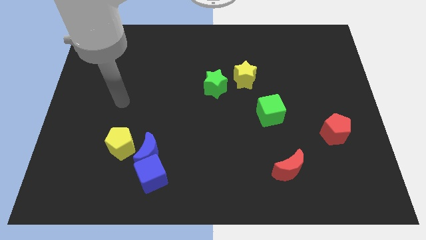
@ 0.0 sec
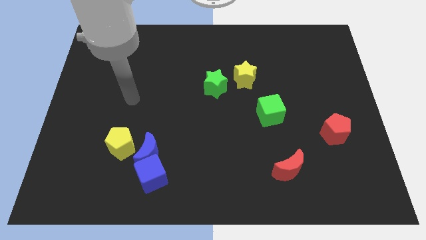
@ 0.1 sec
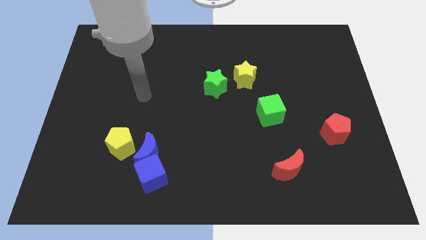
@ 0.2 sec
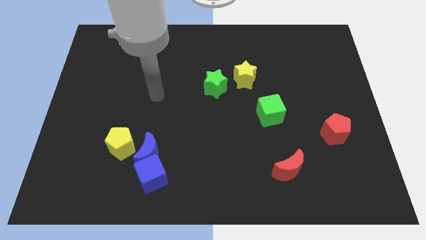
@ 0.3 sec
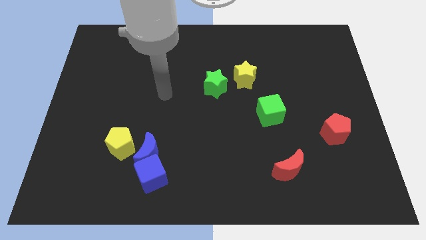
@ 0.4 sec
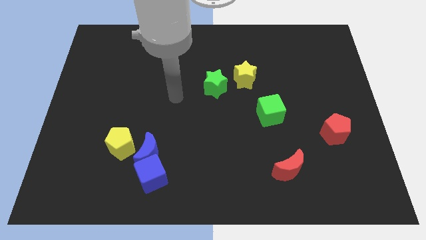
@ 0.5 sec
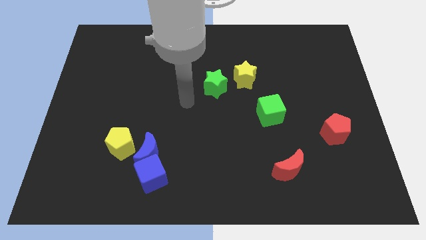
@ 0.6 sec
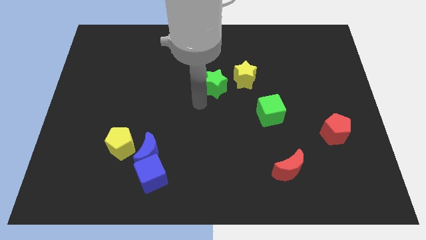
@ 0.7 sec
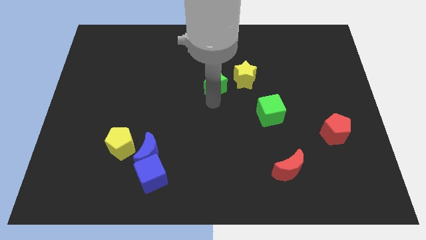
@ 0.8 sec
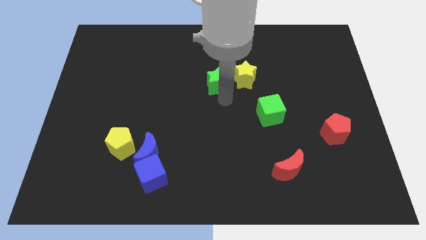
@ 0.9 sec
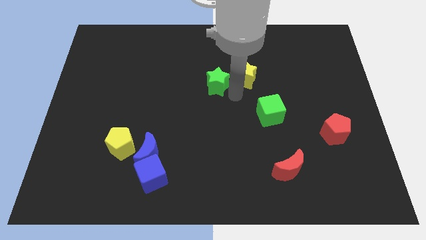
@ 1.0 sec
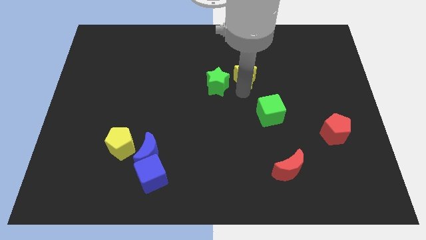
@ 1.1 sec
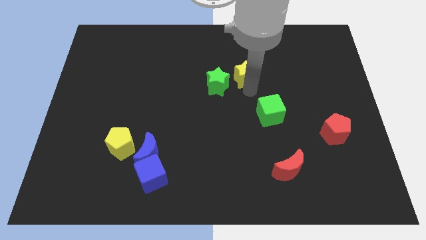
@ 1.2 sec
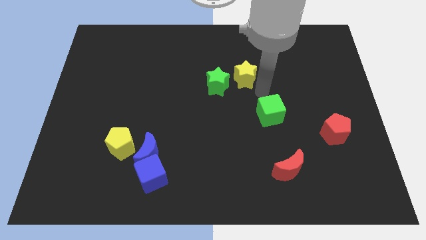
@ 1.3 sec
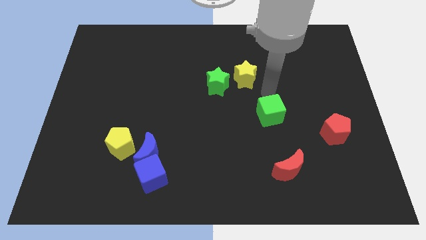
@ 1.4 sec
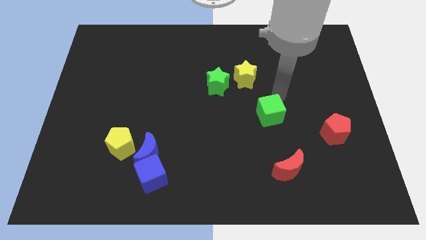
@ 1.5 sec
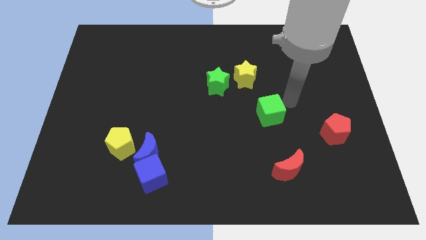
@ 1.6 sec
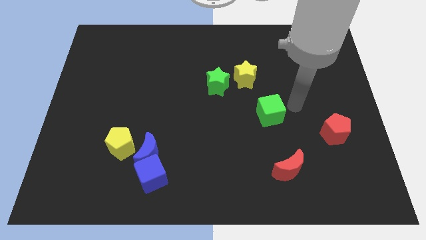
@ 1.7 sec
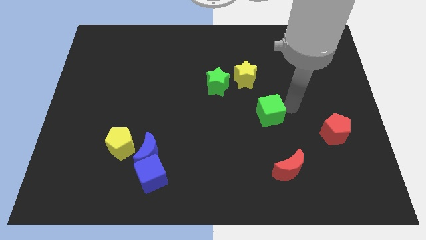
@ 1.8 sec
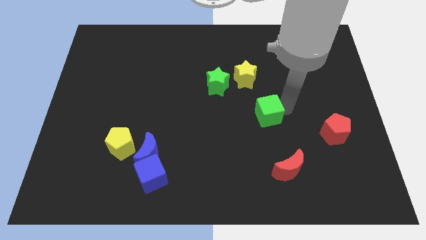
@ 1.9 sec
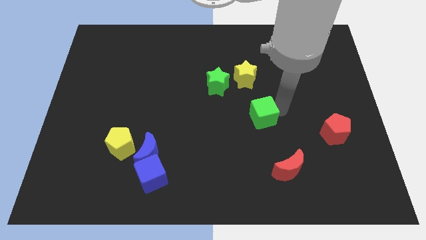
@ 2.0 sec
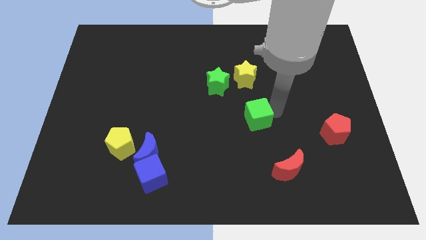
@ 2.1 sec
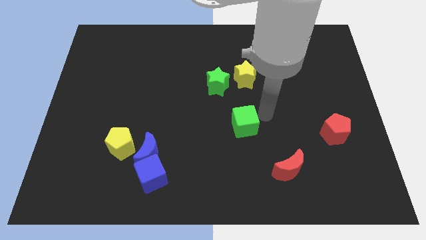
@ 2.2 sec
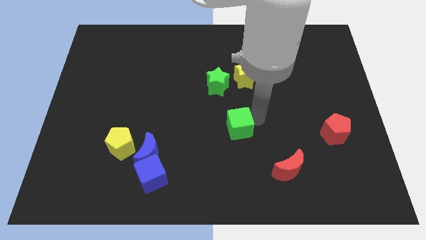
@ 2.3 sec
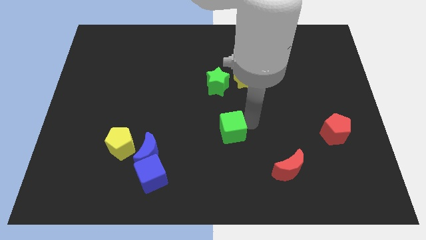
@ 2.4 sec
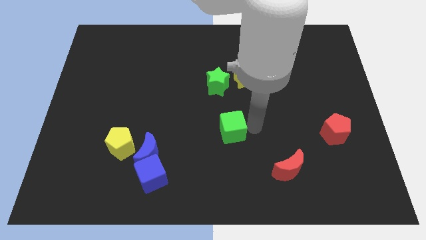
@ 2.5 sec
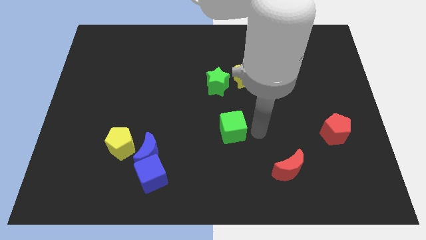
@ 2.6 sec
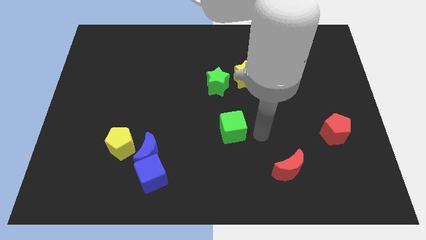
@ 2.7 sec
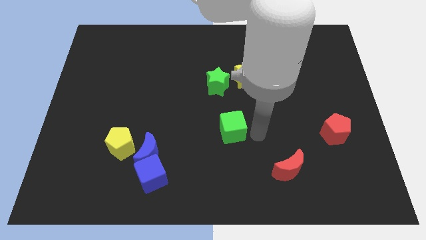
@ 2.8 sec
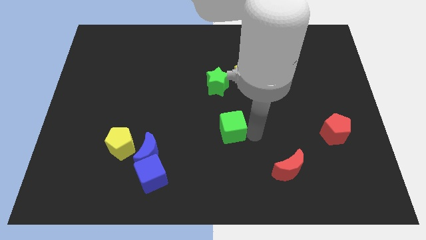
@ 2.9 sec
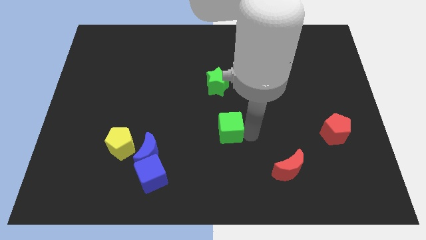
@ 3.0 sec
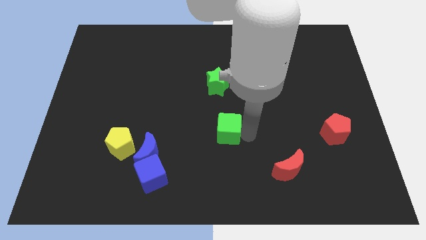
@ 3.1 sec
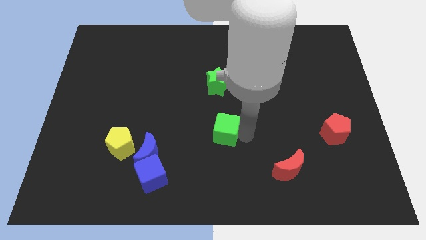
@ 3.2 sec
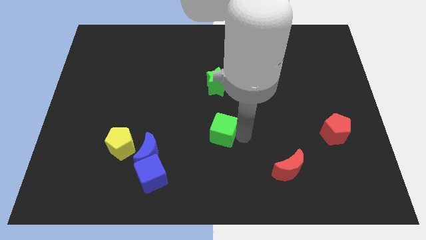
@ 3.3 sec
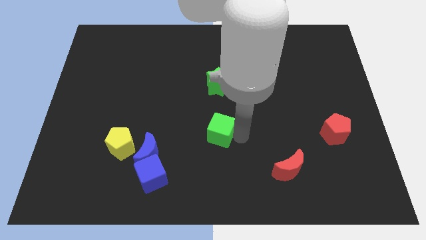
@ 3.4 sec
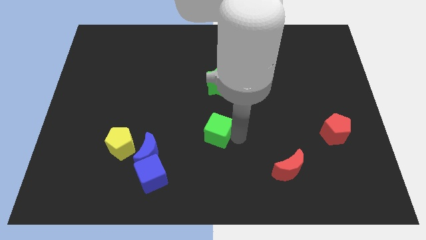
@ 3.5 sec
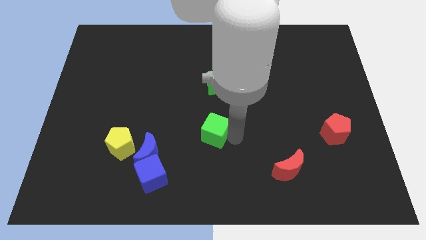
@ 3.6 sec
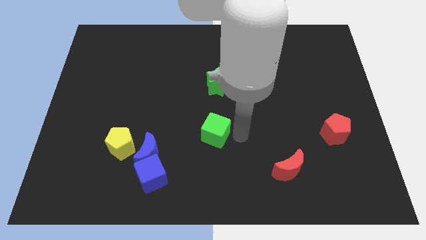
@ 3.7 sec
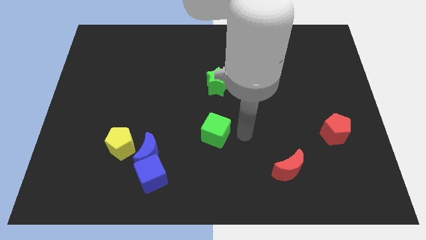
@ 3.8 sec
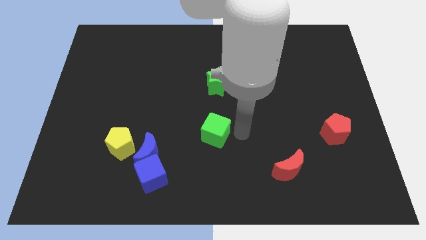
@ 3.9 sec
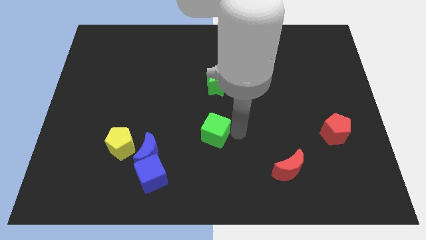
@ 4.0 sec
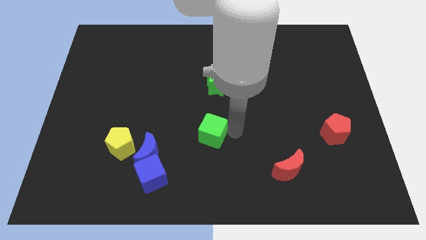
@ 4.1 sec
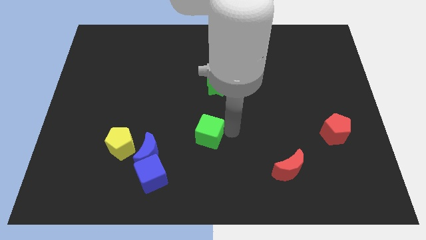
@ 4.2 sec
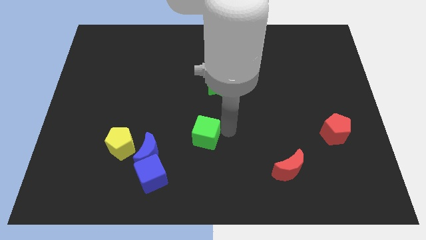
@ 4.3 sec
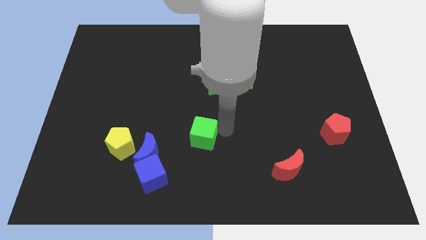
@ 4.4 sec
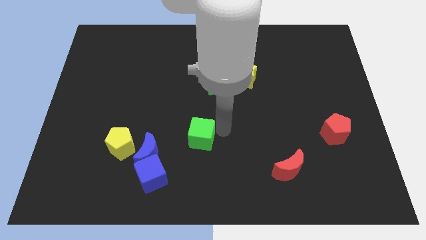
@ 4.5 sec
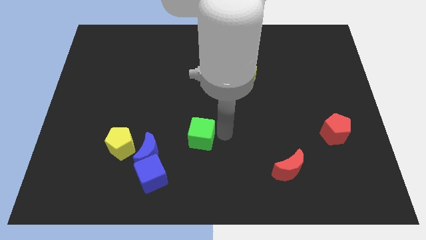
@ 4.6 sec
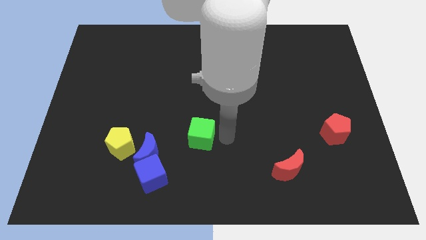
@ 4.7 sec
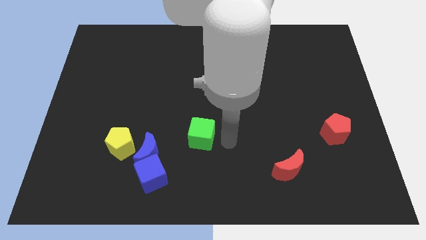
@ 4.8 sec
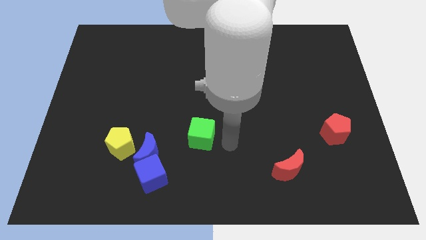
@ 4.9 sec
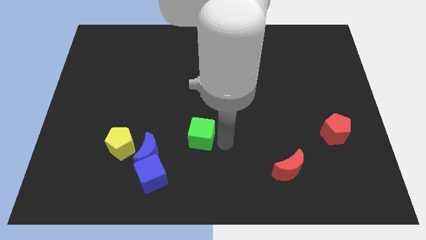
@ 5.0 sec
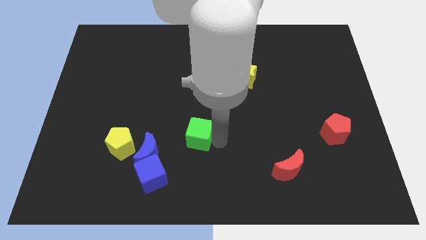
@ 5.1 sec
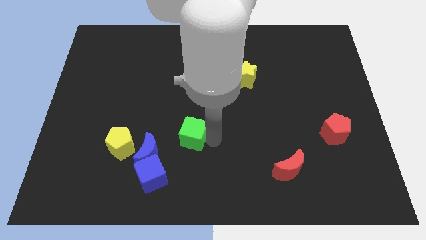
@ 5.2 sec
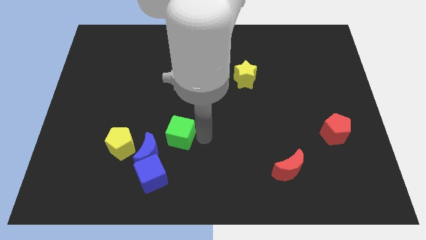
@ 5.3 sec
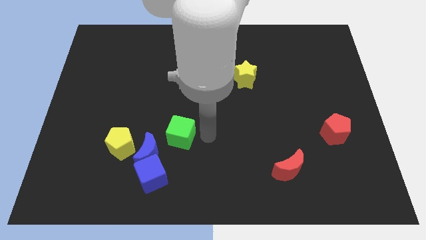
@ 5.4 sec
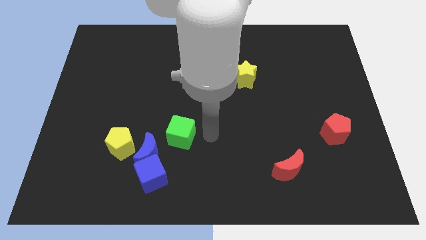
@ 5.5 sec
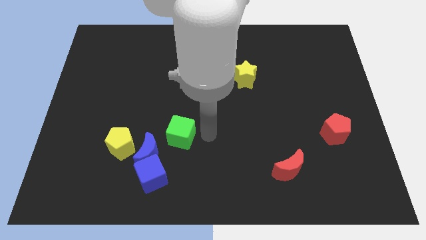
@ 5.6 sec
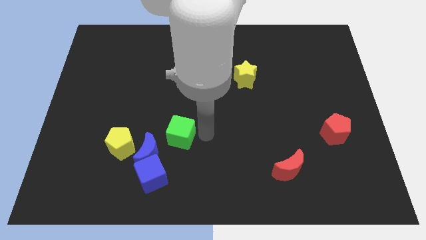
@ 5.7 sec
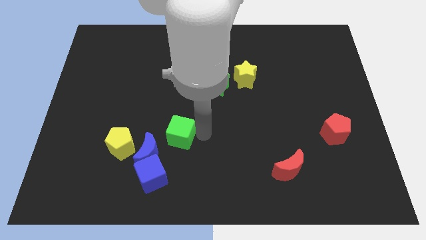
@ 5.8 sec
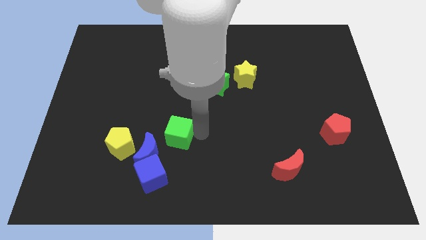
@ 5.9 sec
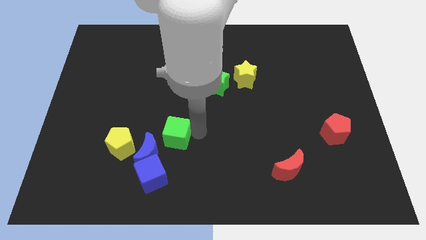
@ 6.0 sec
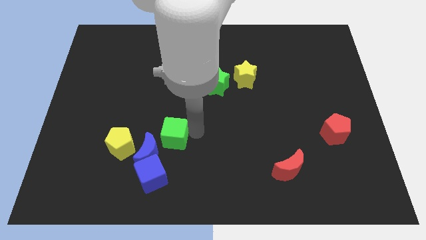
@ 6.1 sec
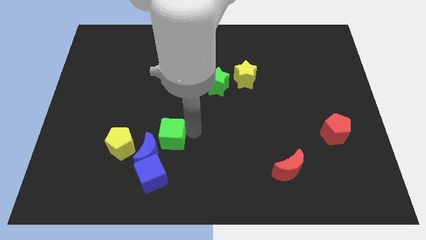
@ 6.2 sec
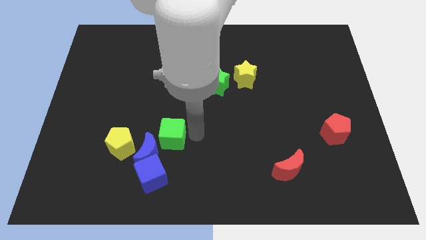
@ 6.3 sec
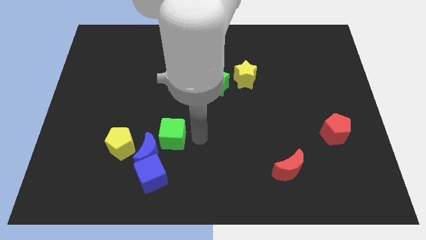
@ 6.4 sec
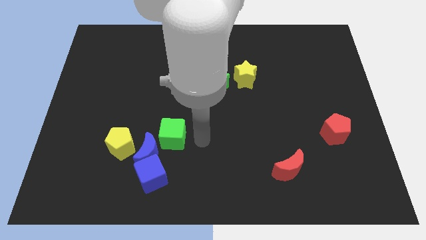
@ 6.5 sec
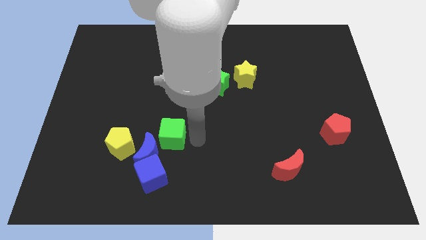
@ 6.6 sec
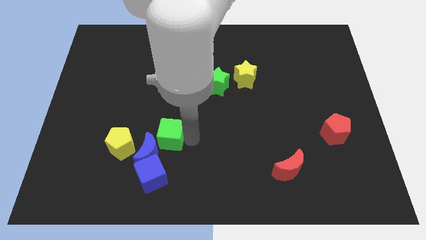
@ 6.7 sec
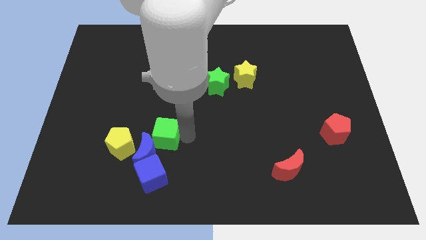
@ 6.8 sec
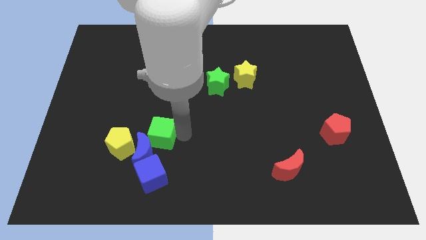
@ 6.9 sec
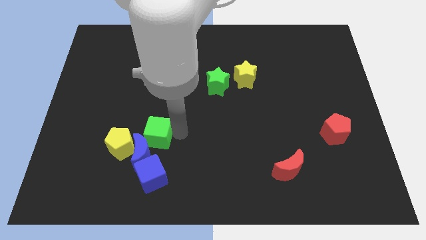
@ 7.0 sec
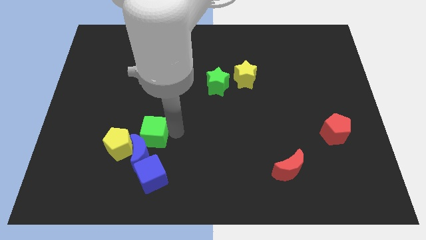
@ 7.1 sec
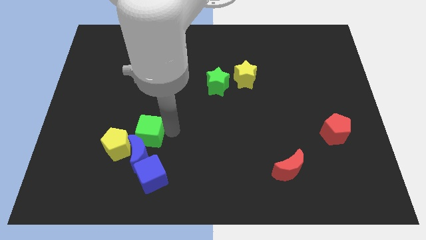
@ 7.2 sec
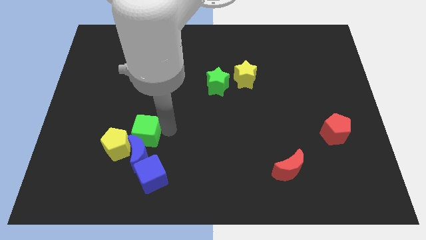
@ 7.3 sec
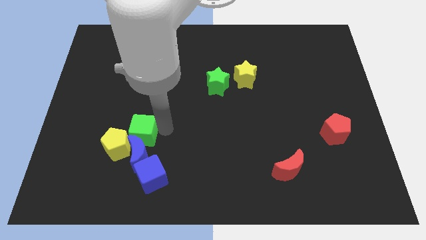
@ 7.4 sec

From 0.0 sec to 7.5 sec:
slide the green cube towards the yellow pentagon
